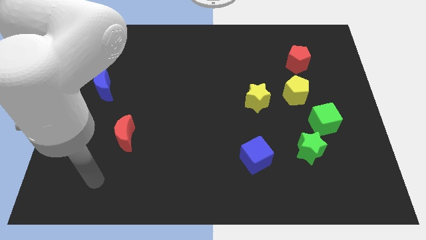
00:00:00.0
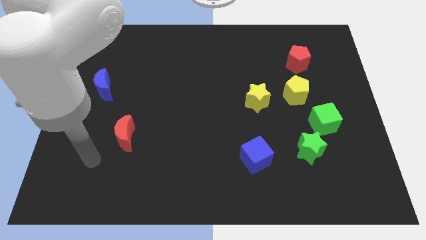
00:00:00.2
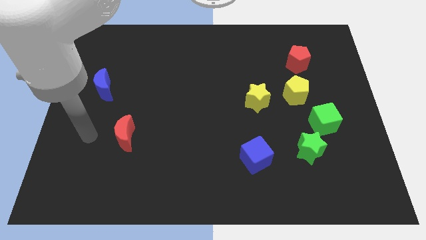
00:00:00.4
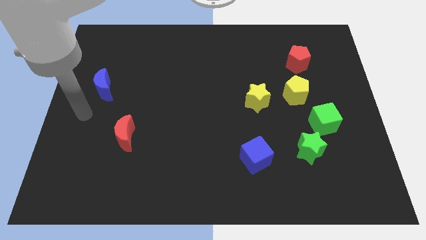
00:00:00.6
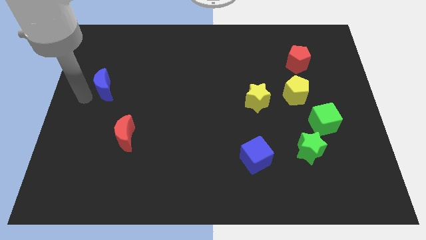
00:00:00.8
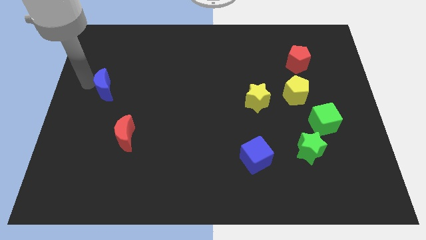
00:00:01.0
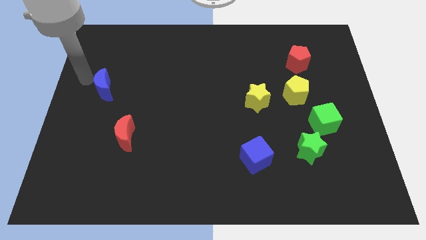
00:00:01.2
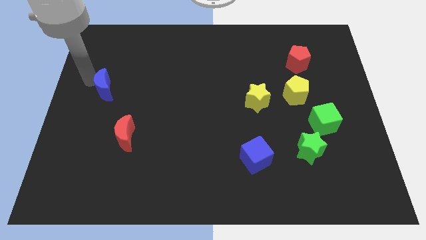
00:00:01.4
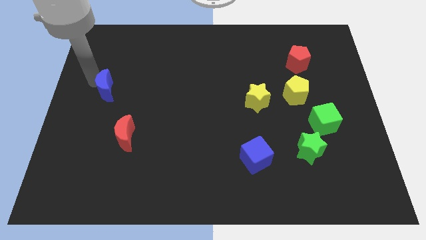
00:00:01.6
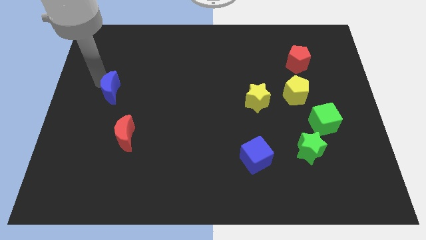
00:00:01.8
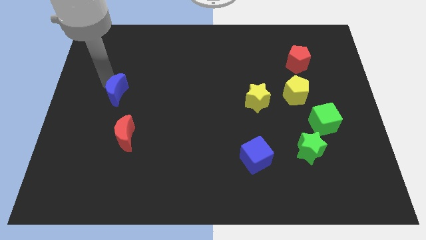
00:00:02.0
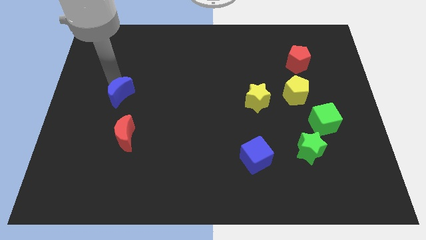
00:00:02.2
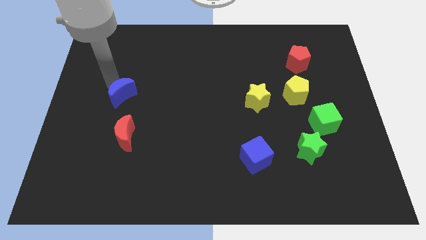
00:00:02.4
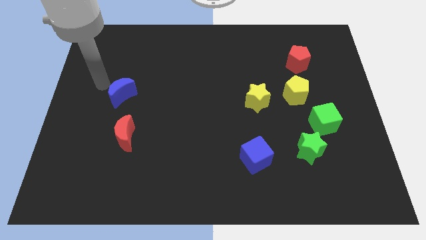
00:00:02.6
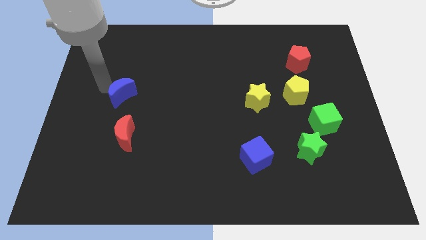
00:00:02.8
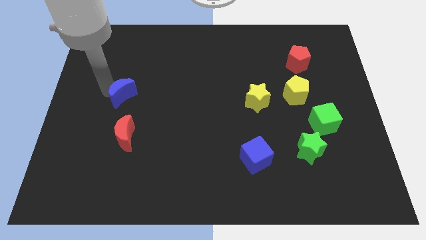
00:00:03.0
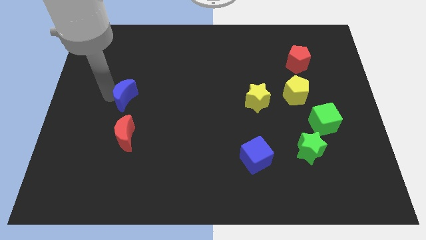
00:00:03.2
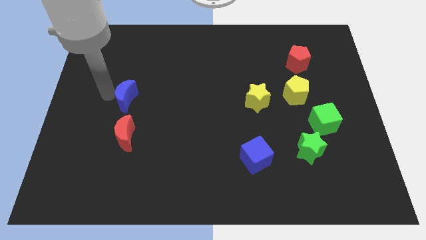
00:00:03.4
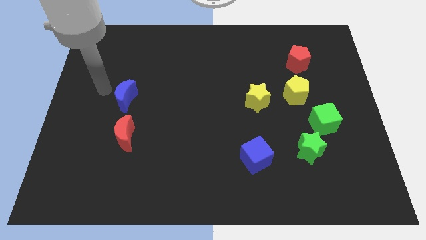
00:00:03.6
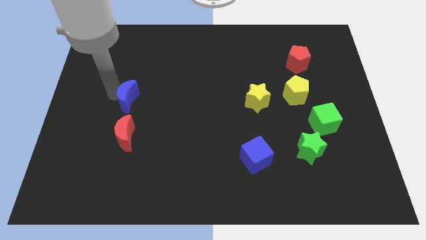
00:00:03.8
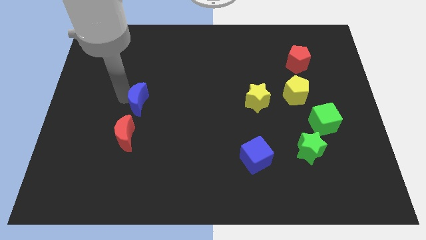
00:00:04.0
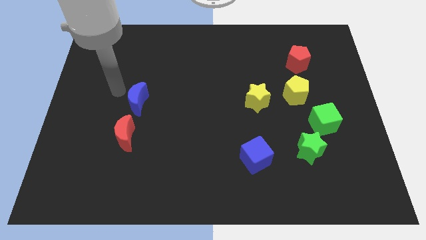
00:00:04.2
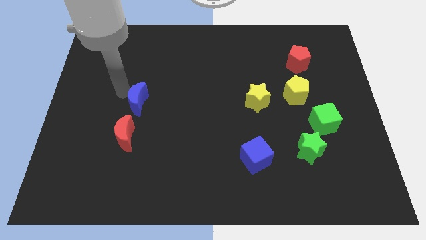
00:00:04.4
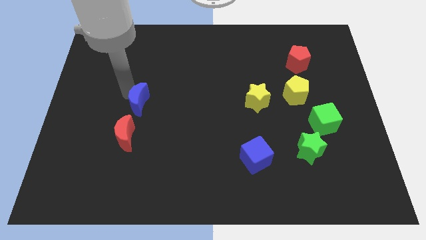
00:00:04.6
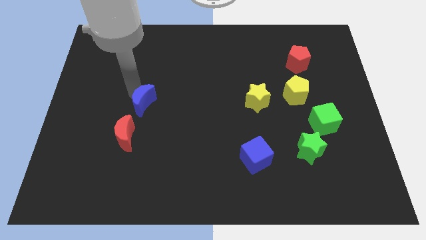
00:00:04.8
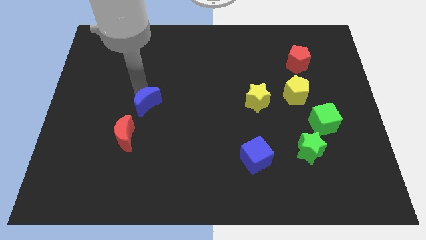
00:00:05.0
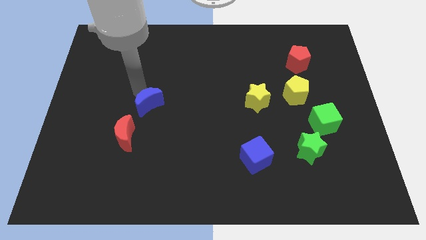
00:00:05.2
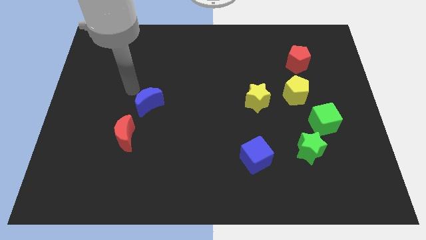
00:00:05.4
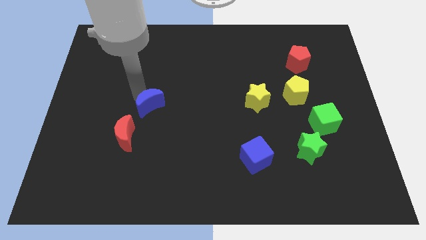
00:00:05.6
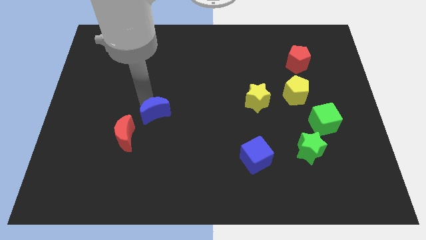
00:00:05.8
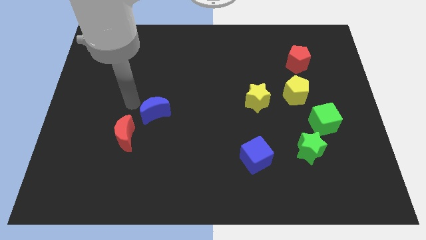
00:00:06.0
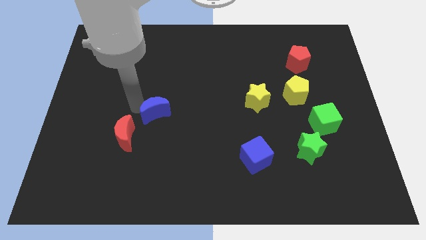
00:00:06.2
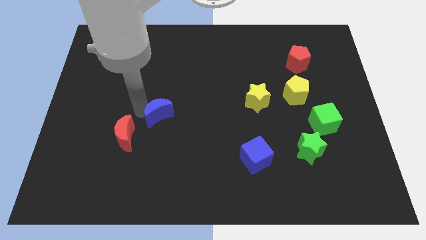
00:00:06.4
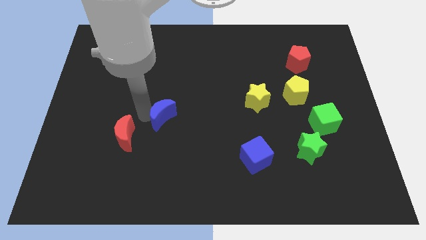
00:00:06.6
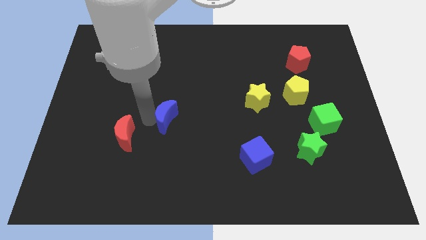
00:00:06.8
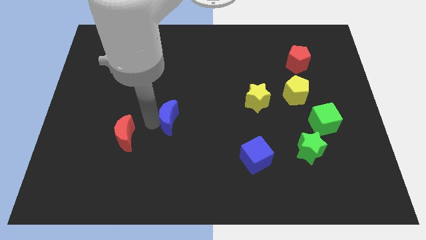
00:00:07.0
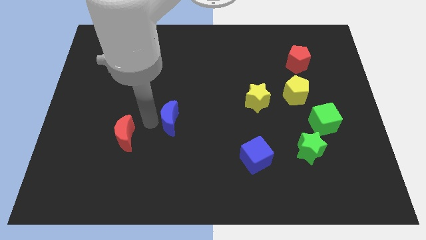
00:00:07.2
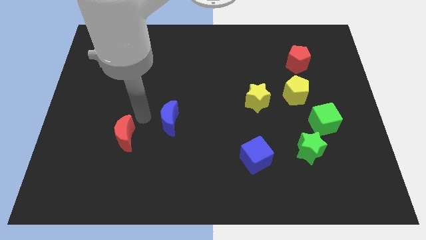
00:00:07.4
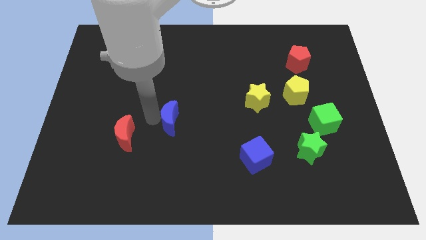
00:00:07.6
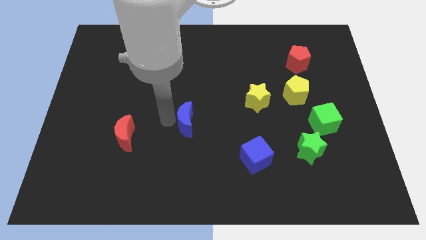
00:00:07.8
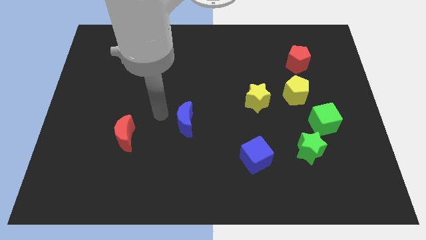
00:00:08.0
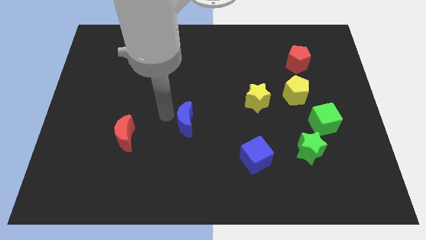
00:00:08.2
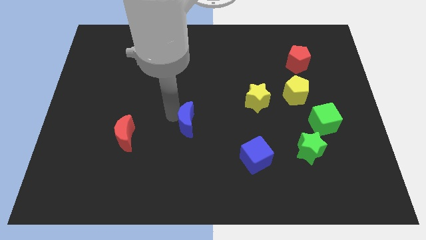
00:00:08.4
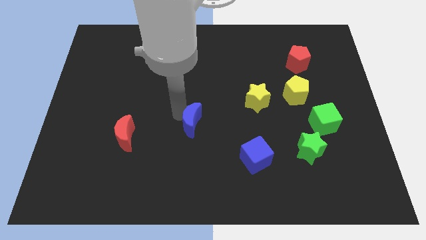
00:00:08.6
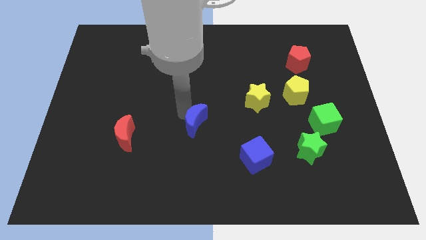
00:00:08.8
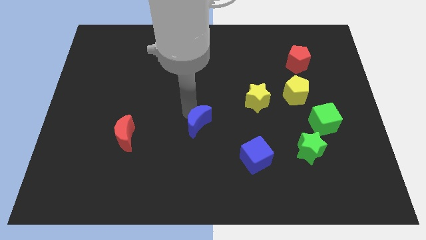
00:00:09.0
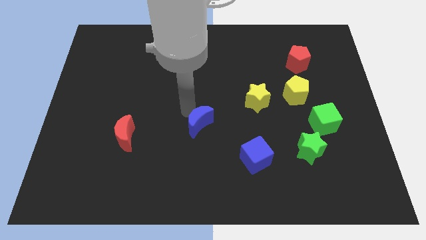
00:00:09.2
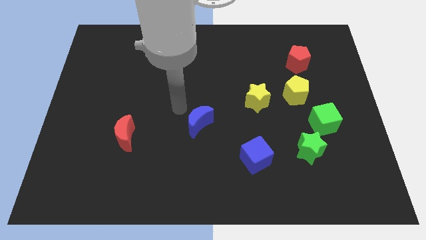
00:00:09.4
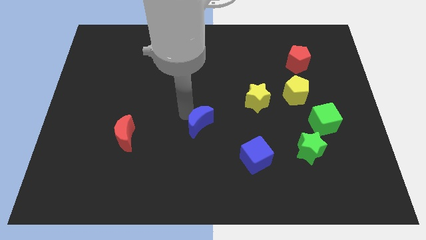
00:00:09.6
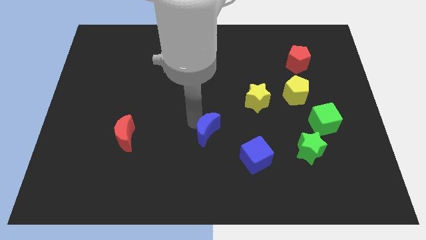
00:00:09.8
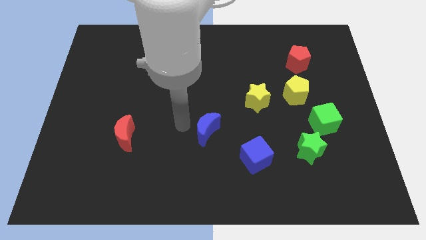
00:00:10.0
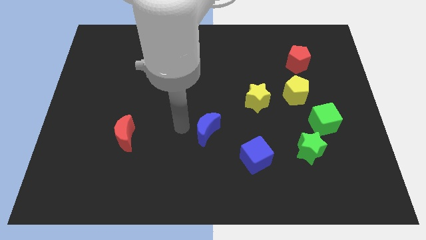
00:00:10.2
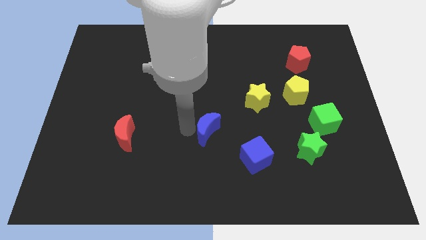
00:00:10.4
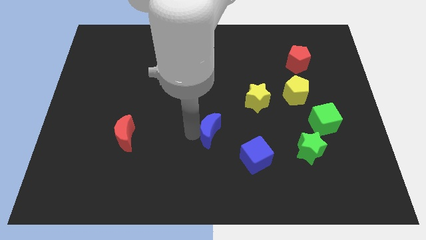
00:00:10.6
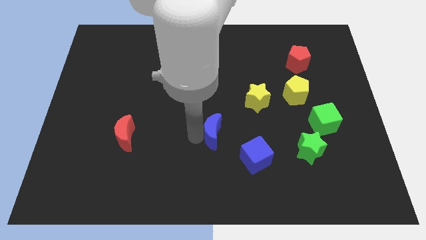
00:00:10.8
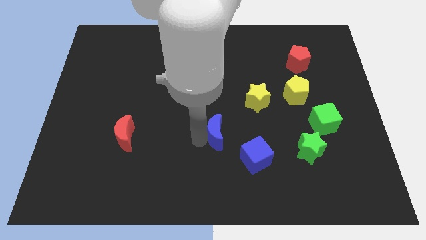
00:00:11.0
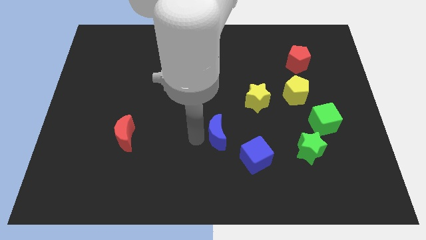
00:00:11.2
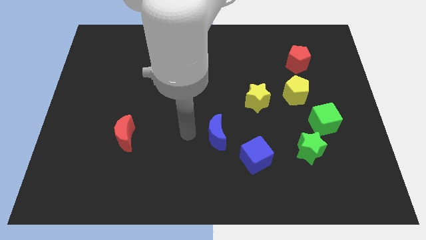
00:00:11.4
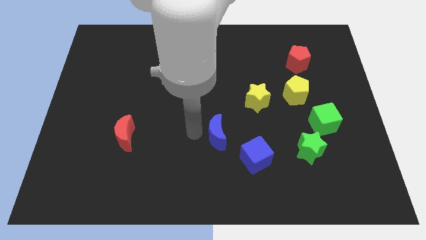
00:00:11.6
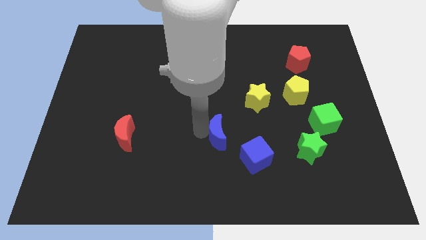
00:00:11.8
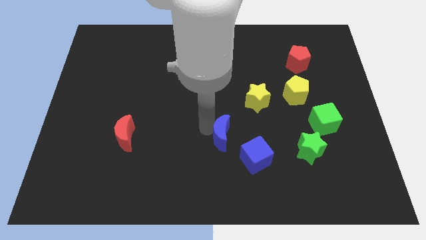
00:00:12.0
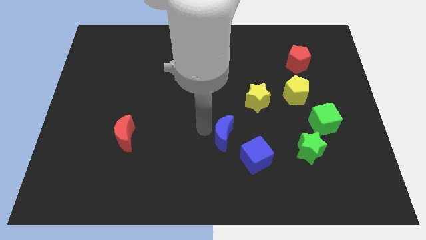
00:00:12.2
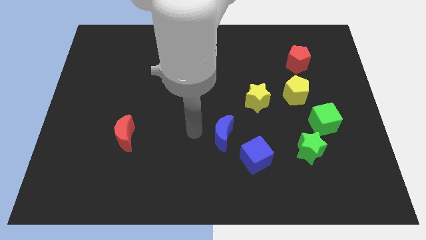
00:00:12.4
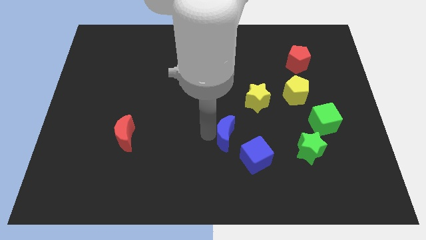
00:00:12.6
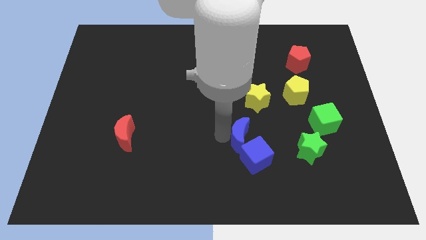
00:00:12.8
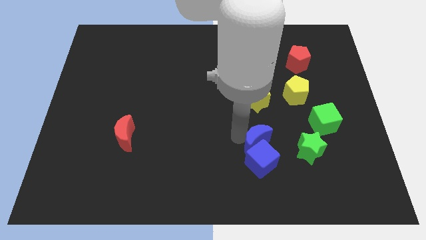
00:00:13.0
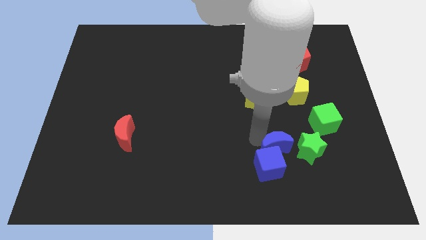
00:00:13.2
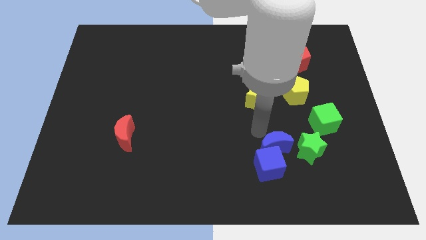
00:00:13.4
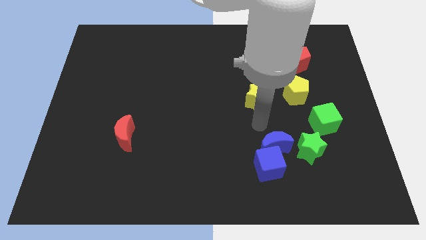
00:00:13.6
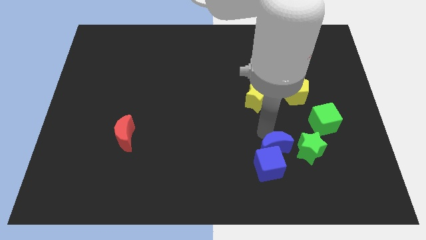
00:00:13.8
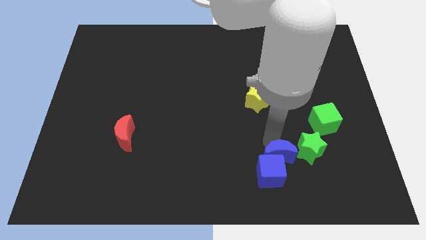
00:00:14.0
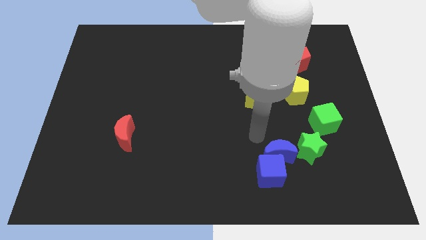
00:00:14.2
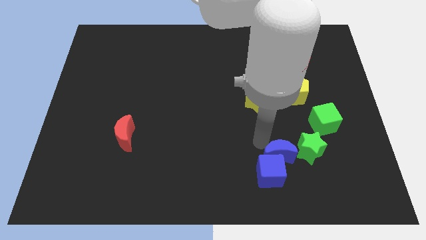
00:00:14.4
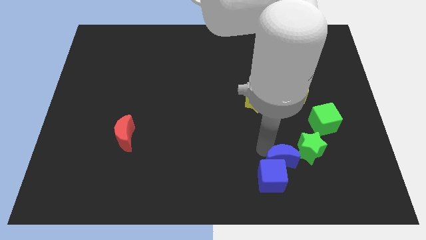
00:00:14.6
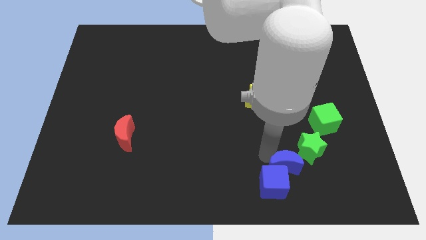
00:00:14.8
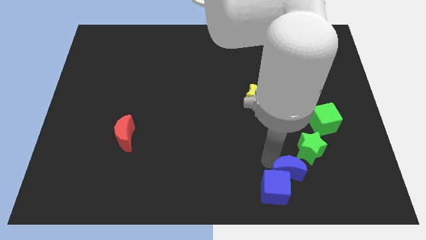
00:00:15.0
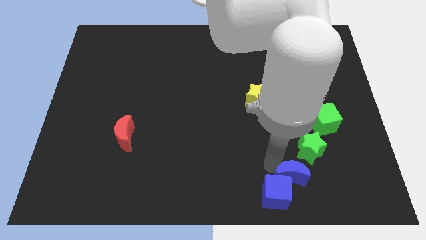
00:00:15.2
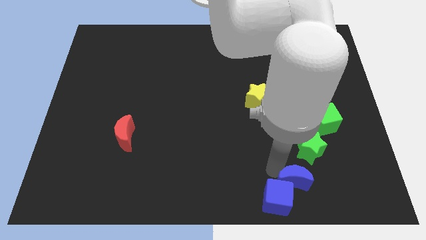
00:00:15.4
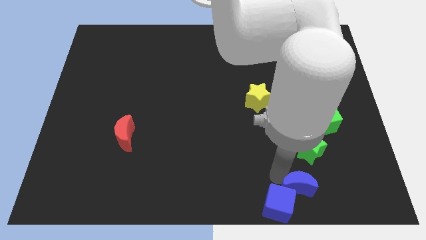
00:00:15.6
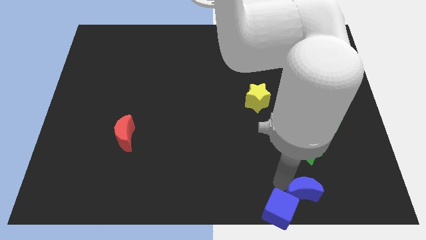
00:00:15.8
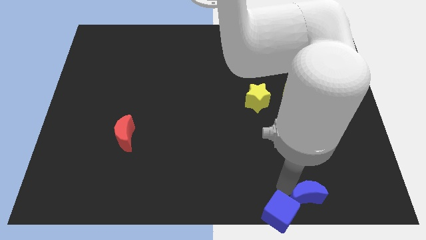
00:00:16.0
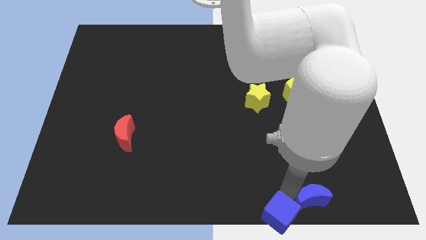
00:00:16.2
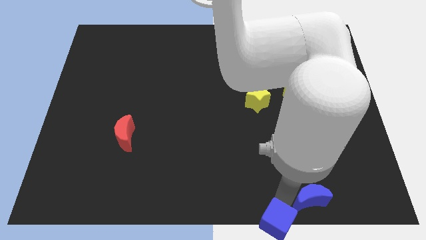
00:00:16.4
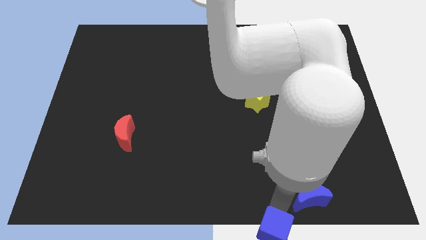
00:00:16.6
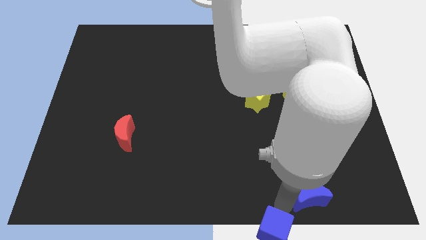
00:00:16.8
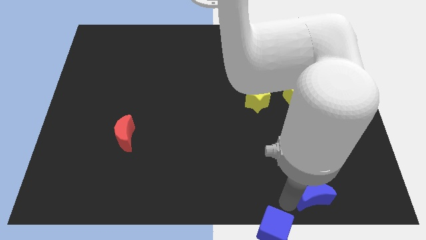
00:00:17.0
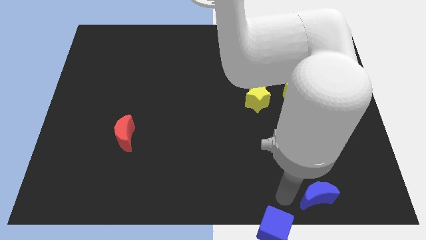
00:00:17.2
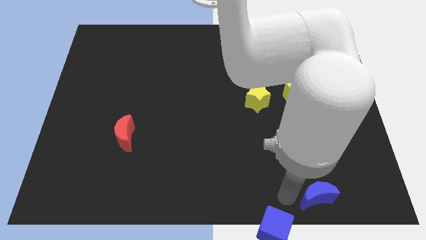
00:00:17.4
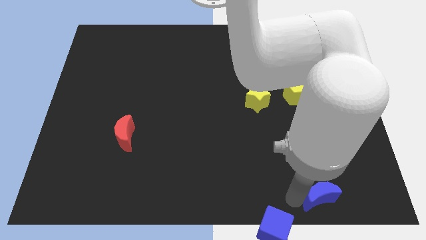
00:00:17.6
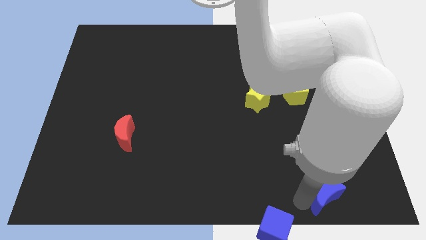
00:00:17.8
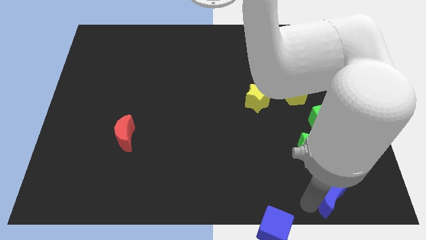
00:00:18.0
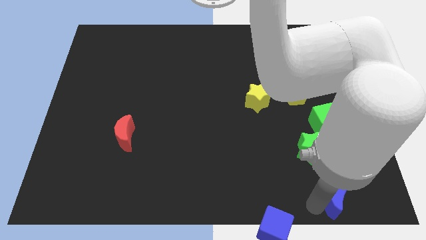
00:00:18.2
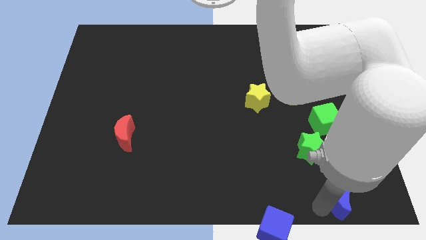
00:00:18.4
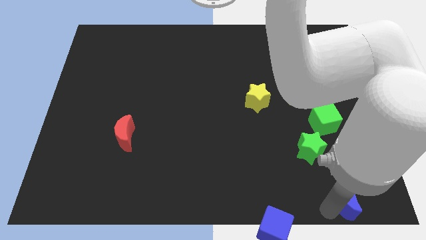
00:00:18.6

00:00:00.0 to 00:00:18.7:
push the blue moon to the bottom right of the board
